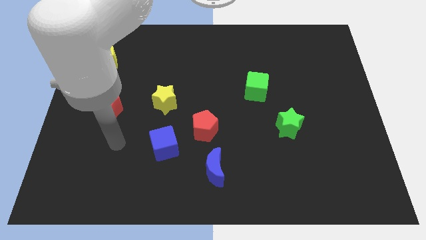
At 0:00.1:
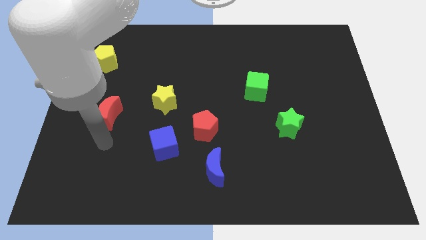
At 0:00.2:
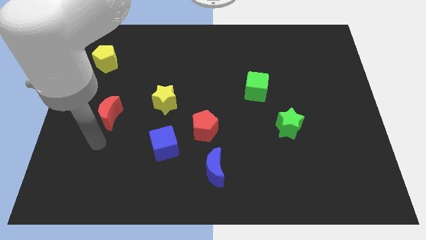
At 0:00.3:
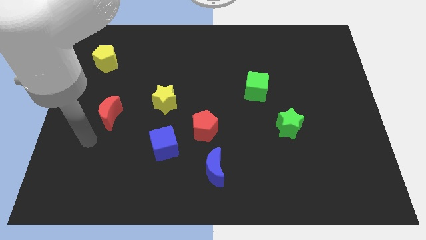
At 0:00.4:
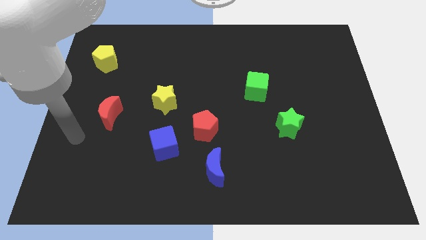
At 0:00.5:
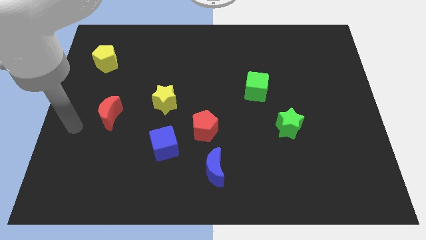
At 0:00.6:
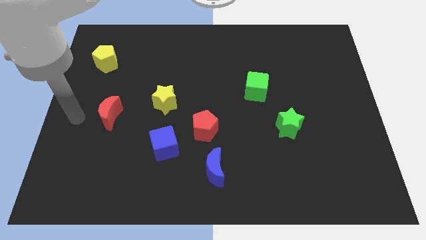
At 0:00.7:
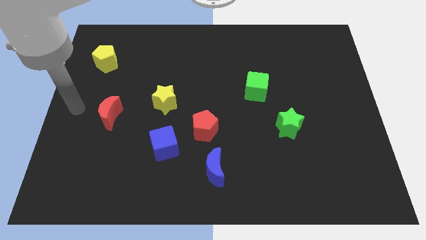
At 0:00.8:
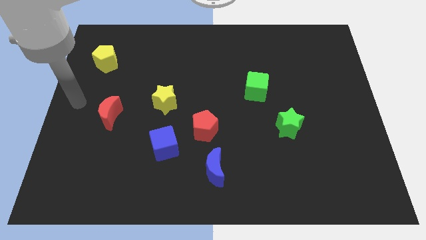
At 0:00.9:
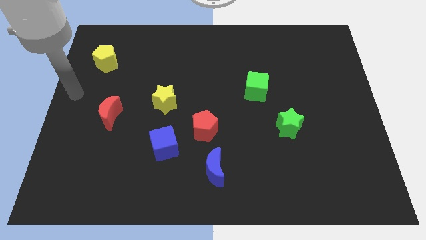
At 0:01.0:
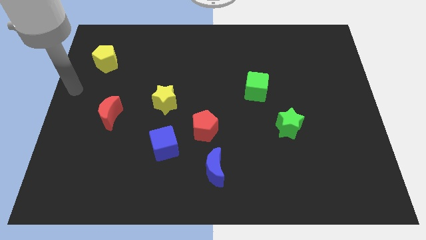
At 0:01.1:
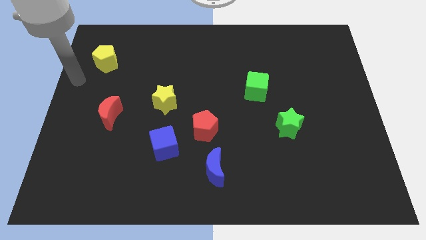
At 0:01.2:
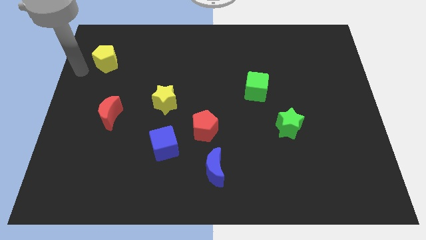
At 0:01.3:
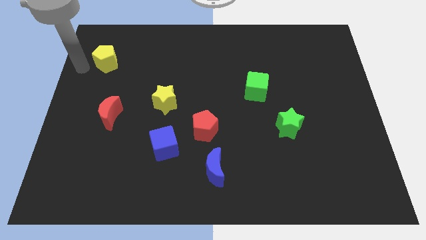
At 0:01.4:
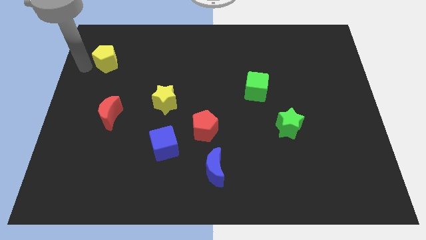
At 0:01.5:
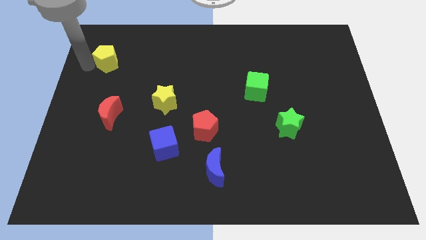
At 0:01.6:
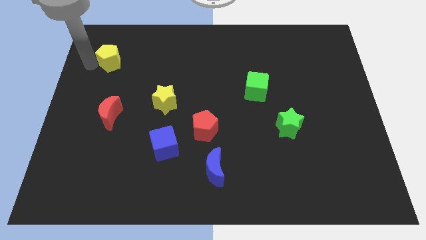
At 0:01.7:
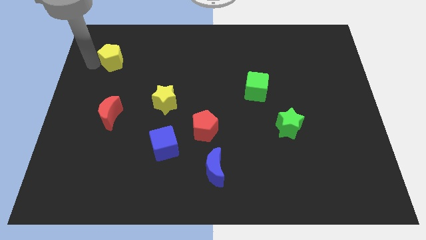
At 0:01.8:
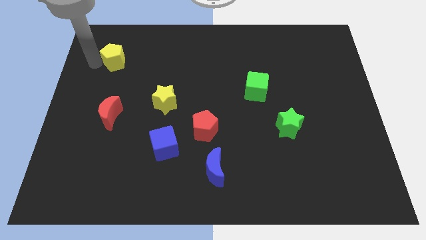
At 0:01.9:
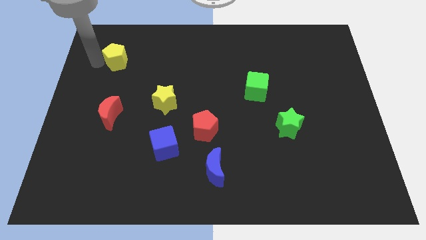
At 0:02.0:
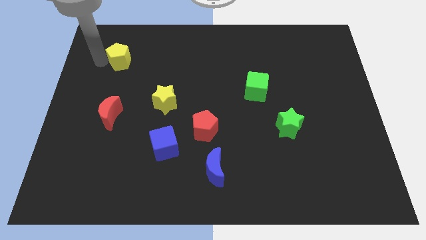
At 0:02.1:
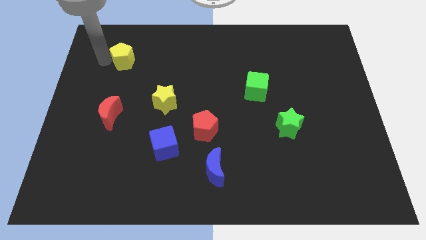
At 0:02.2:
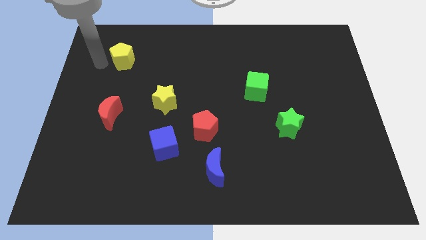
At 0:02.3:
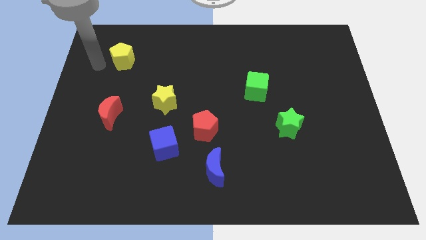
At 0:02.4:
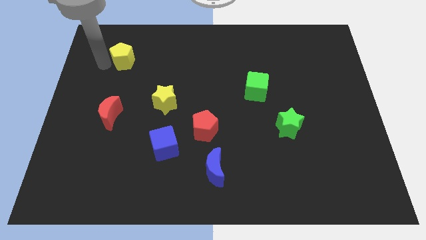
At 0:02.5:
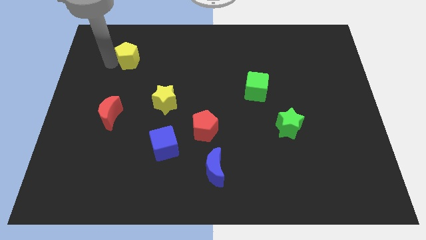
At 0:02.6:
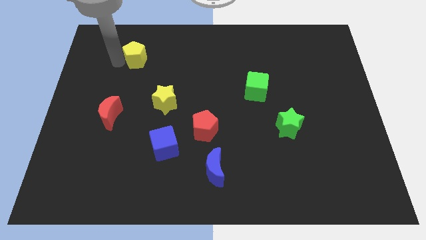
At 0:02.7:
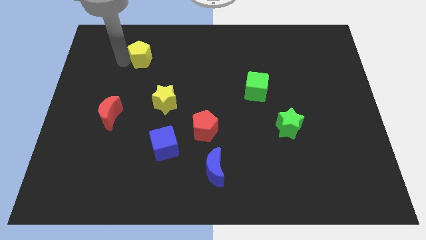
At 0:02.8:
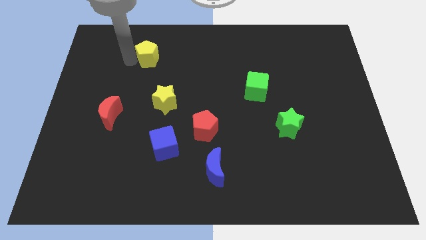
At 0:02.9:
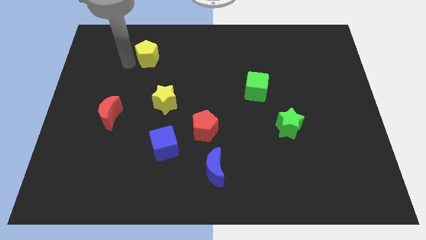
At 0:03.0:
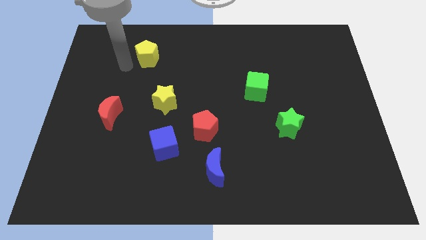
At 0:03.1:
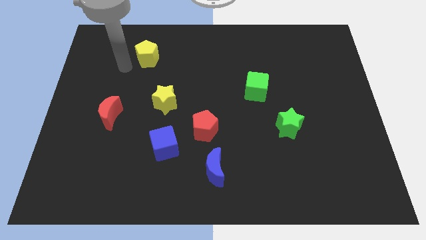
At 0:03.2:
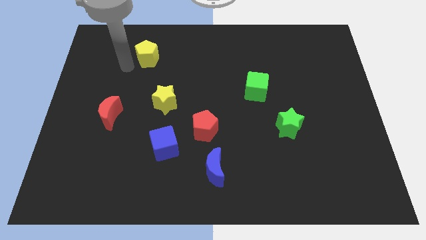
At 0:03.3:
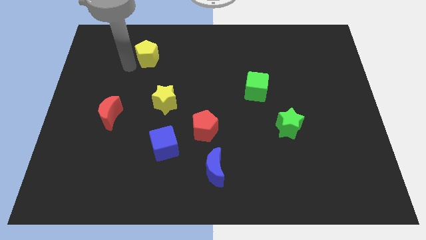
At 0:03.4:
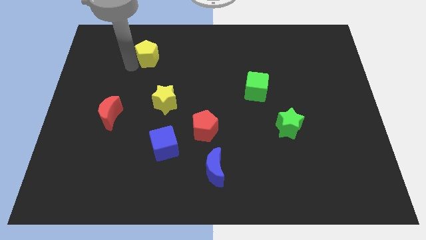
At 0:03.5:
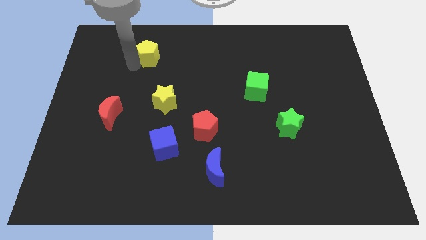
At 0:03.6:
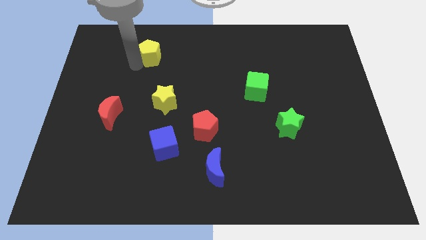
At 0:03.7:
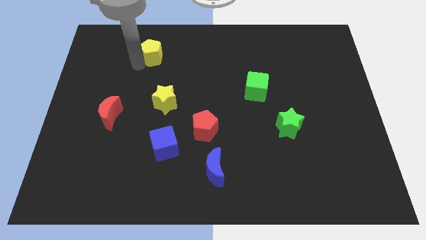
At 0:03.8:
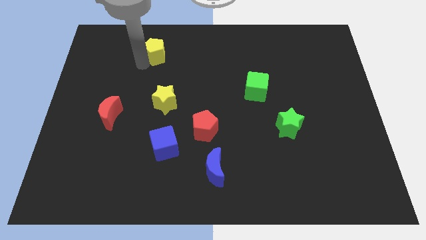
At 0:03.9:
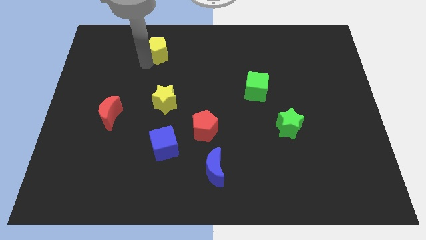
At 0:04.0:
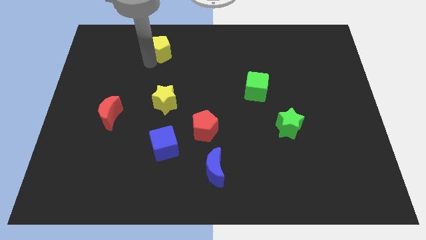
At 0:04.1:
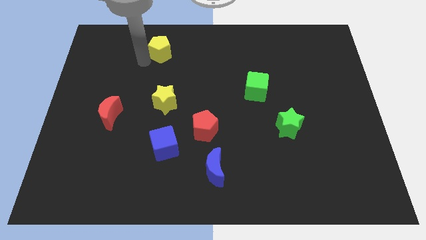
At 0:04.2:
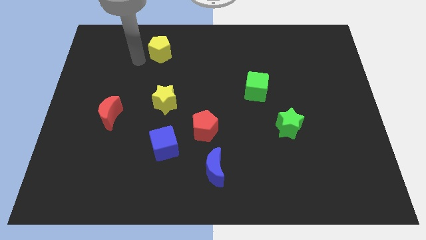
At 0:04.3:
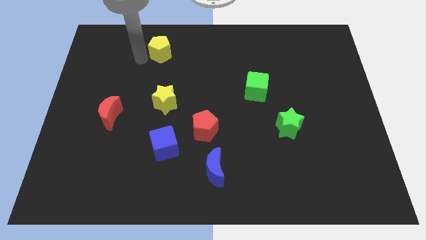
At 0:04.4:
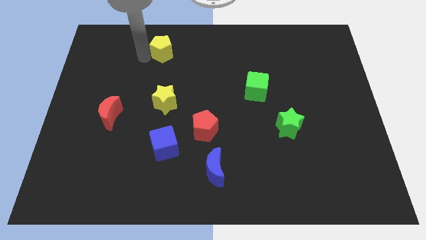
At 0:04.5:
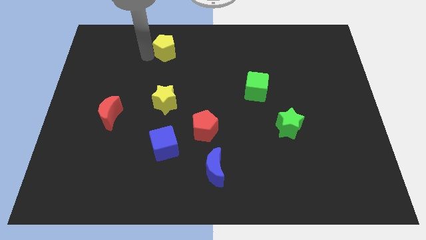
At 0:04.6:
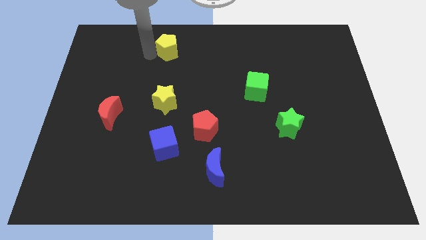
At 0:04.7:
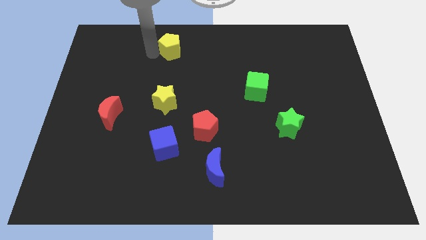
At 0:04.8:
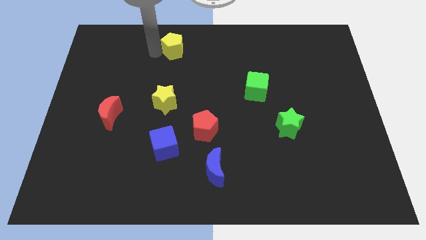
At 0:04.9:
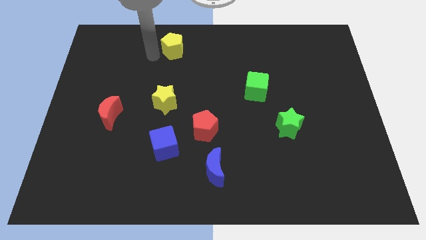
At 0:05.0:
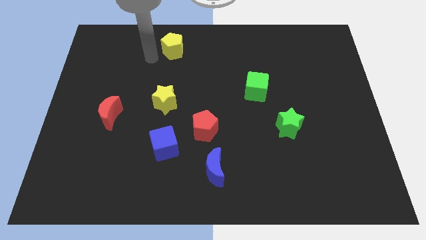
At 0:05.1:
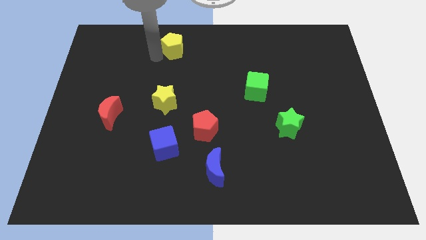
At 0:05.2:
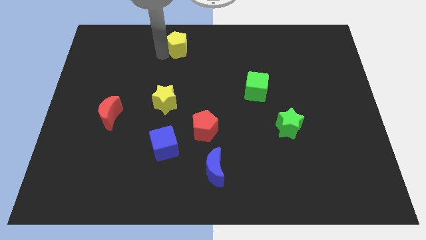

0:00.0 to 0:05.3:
put the yellow pentagon to the top side
